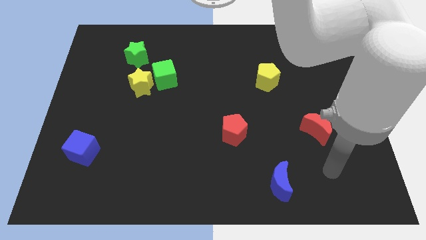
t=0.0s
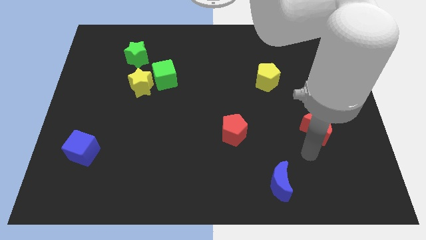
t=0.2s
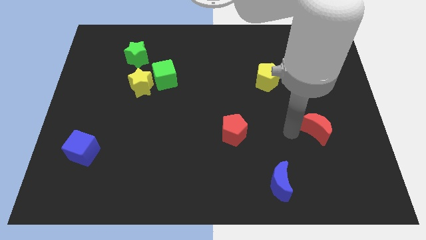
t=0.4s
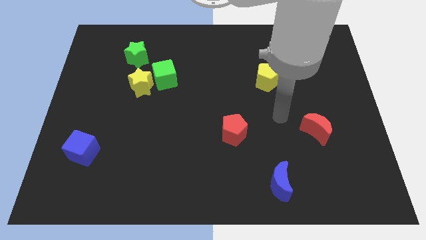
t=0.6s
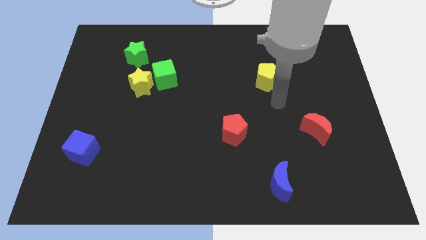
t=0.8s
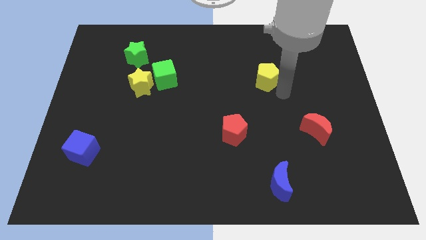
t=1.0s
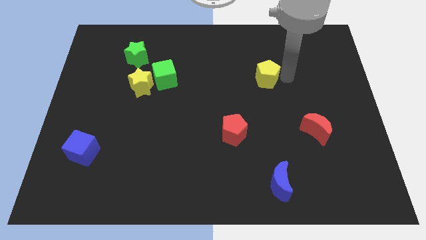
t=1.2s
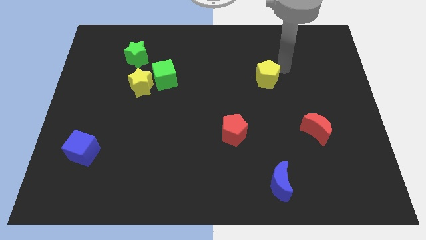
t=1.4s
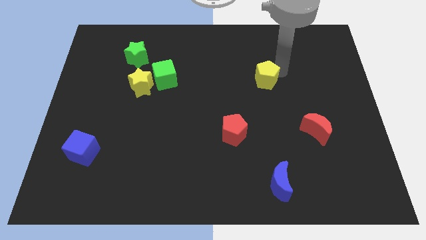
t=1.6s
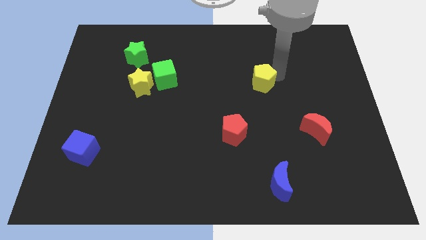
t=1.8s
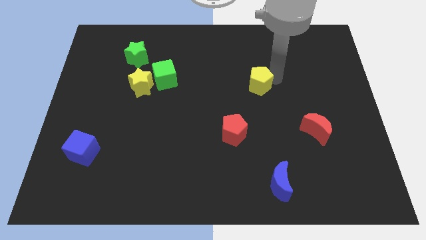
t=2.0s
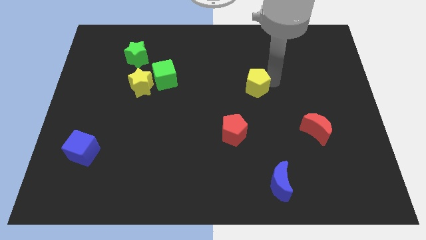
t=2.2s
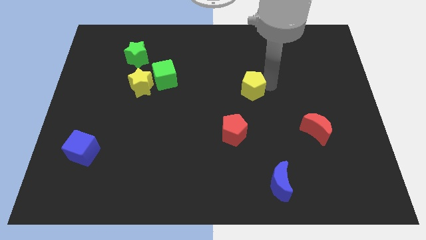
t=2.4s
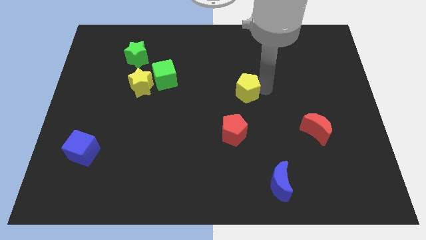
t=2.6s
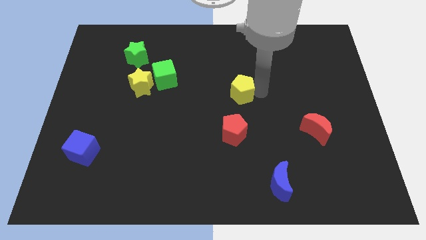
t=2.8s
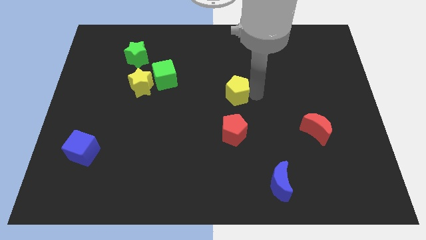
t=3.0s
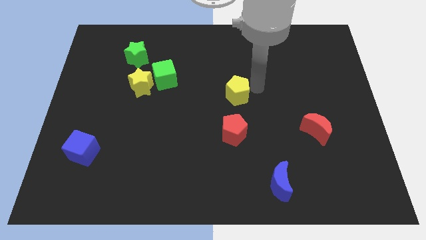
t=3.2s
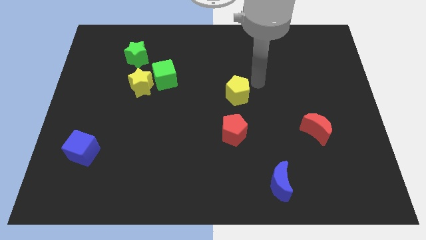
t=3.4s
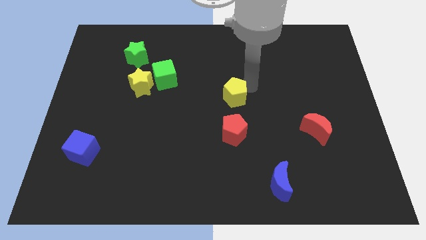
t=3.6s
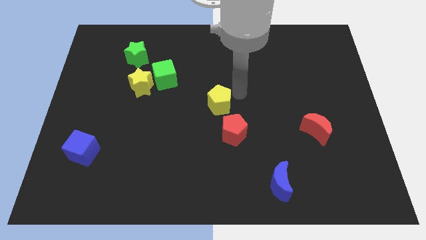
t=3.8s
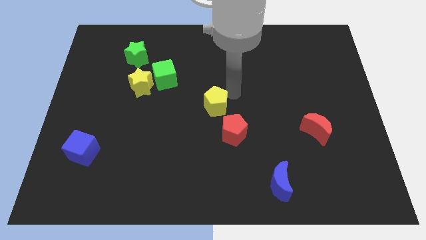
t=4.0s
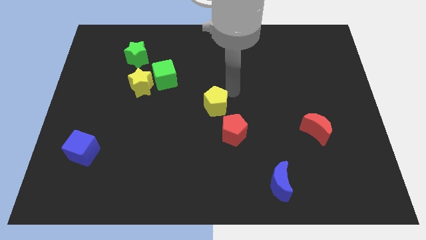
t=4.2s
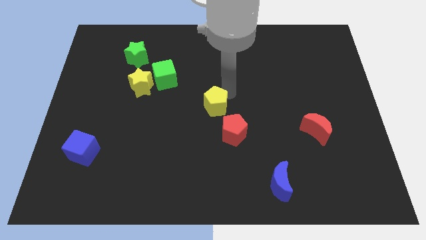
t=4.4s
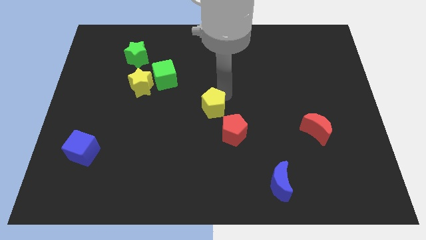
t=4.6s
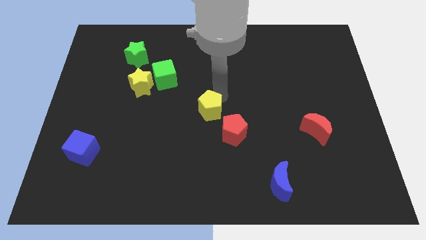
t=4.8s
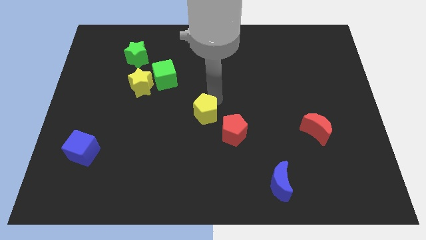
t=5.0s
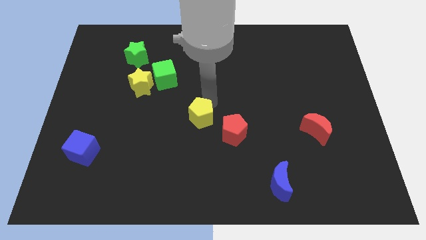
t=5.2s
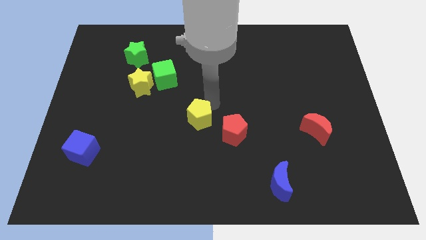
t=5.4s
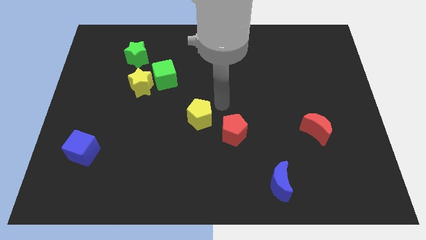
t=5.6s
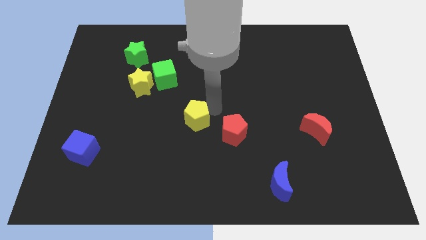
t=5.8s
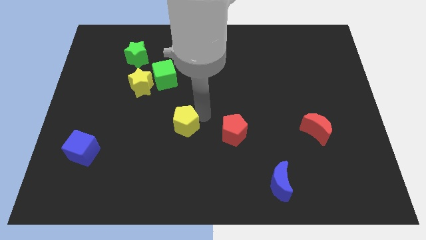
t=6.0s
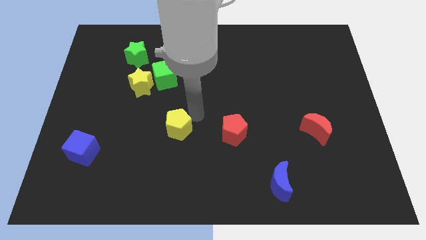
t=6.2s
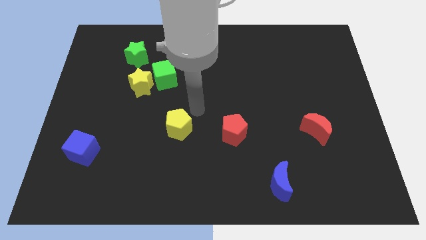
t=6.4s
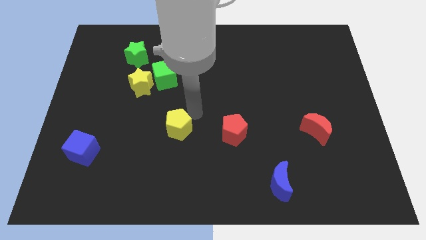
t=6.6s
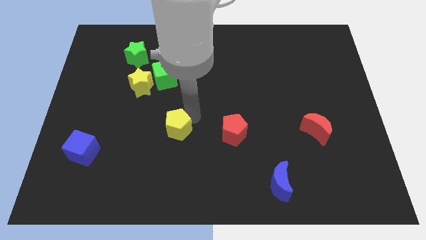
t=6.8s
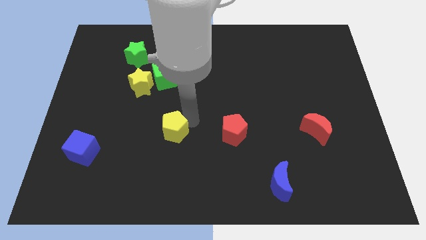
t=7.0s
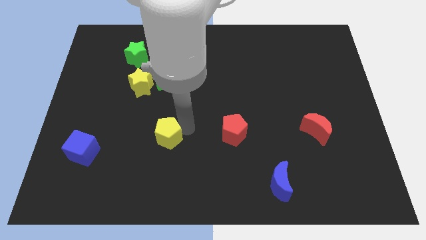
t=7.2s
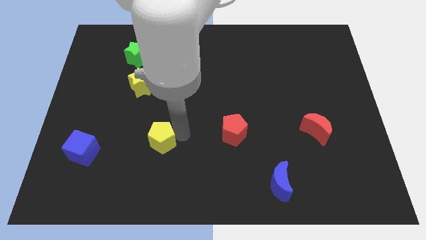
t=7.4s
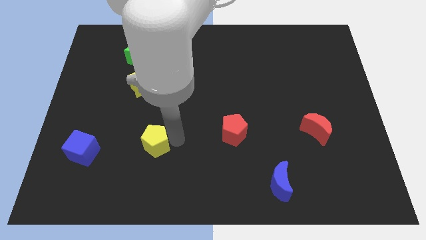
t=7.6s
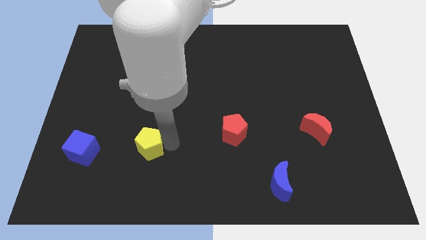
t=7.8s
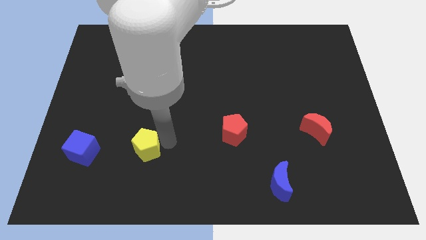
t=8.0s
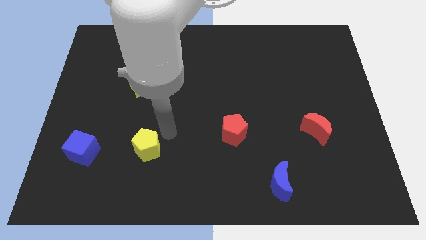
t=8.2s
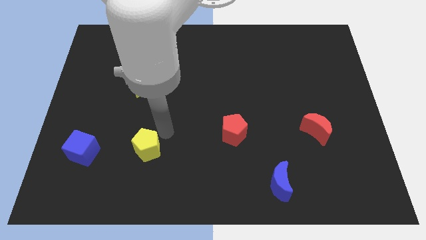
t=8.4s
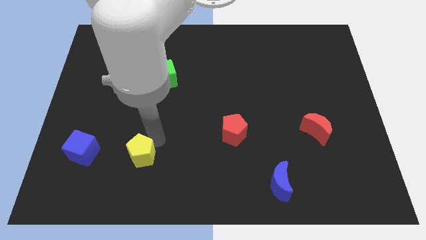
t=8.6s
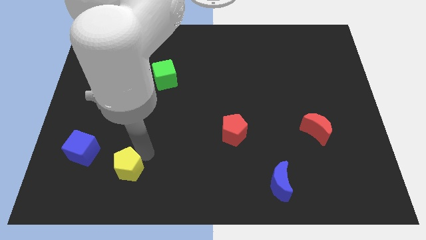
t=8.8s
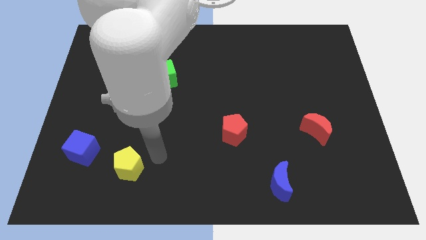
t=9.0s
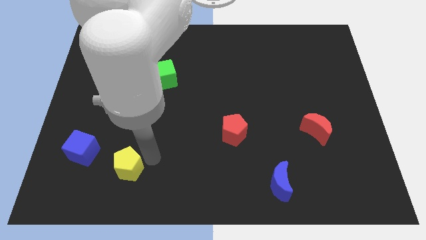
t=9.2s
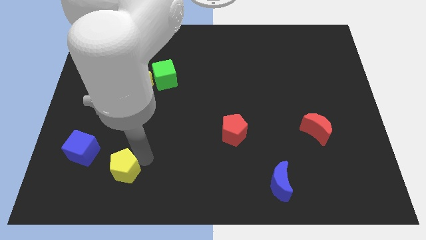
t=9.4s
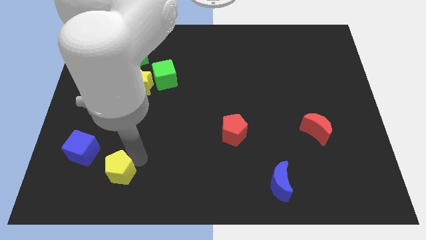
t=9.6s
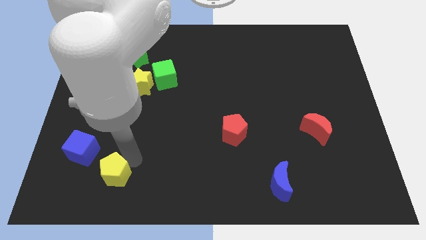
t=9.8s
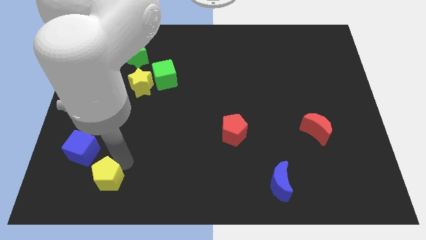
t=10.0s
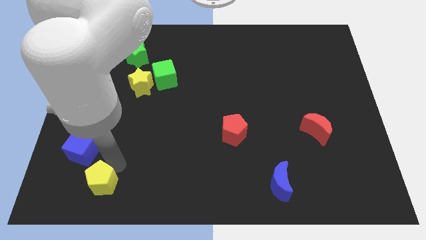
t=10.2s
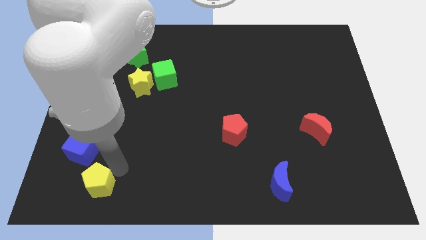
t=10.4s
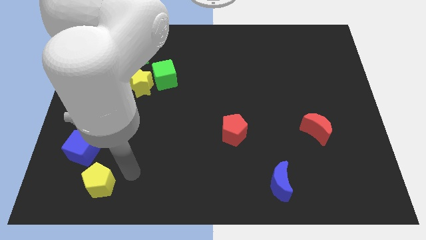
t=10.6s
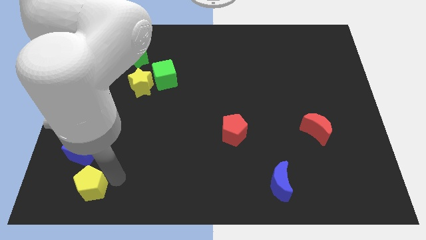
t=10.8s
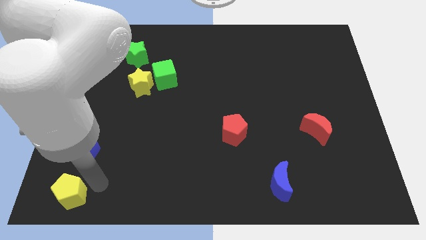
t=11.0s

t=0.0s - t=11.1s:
move the yellow pentagon to the bottom left
